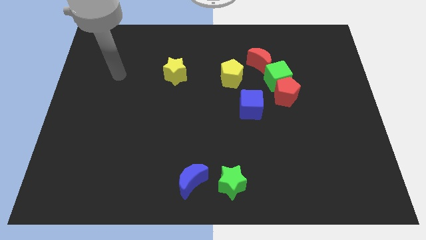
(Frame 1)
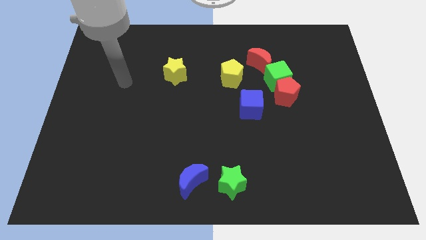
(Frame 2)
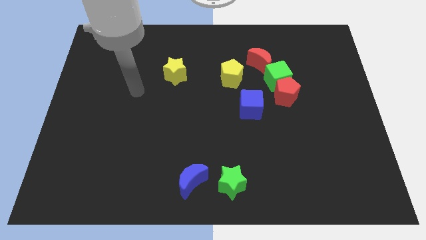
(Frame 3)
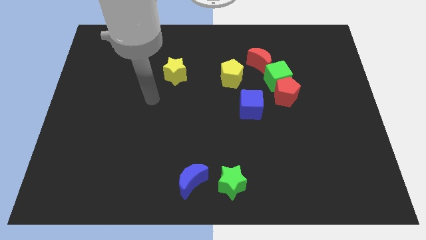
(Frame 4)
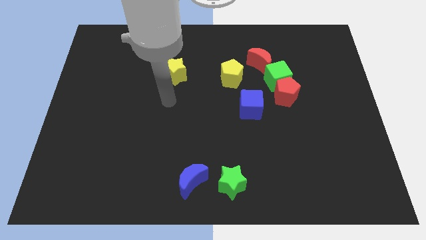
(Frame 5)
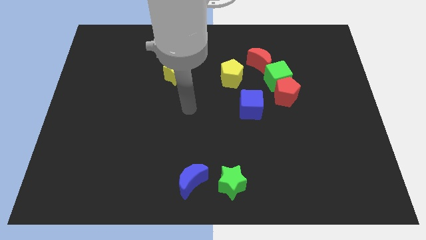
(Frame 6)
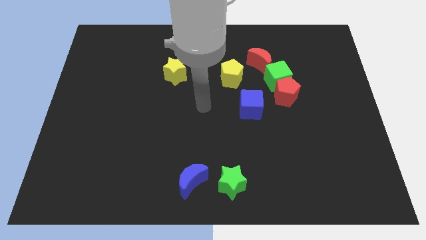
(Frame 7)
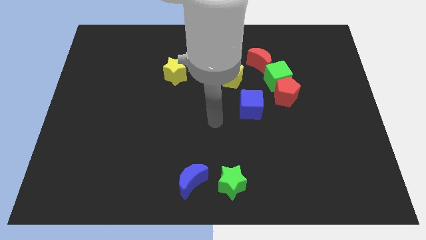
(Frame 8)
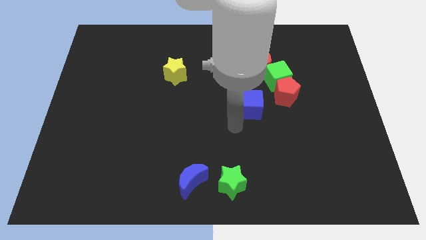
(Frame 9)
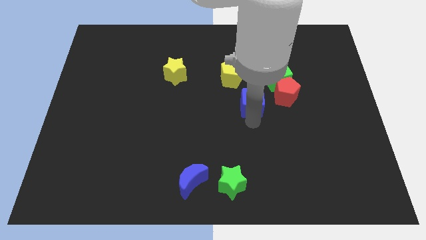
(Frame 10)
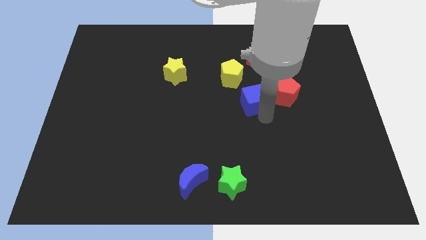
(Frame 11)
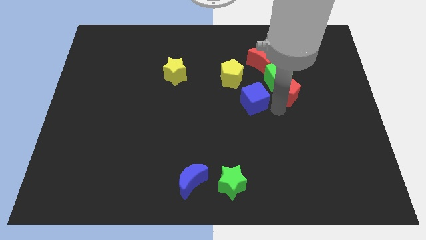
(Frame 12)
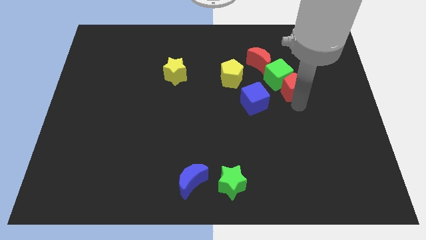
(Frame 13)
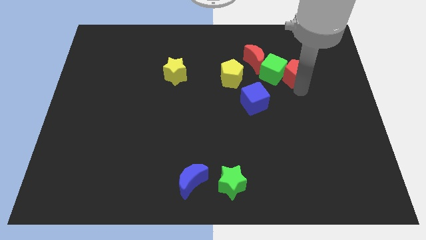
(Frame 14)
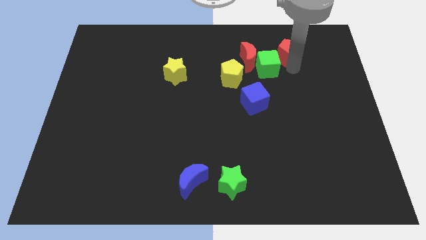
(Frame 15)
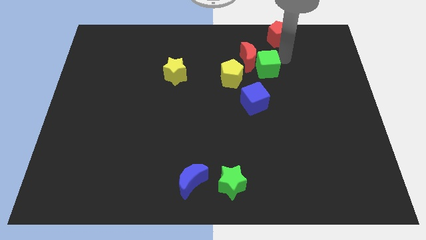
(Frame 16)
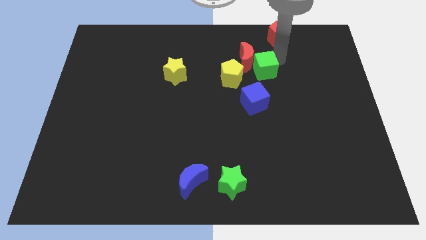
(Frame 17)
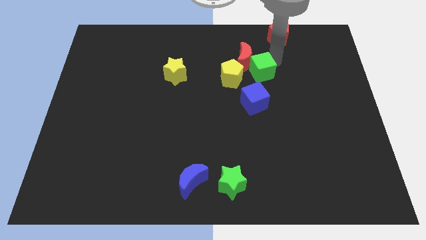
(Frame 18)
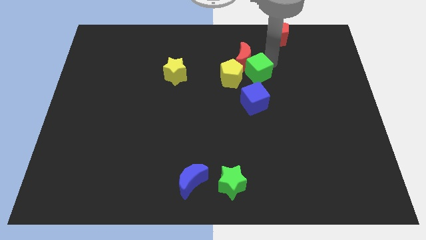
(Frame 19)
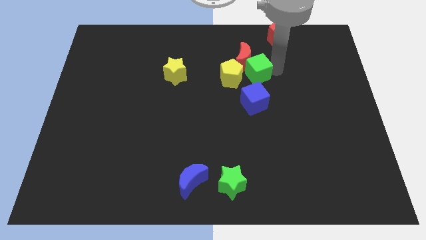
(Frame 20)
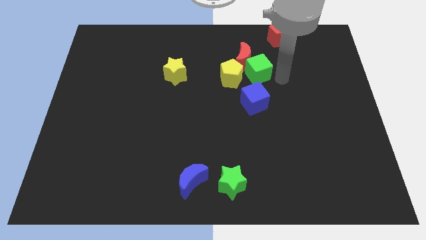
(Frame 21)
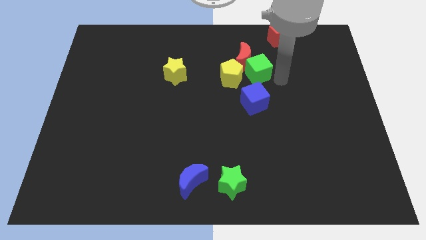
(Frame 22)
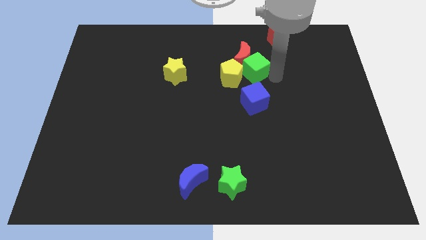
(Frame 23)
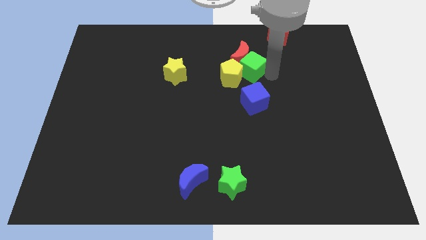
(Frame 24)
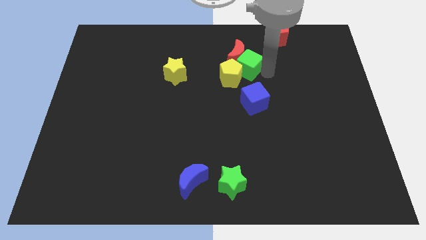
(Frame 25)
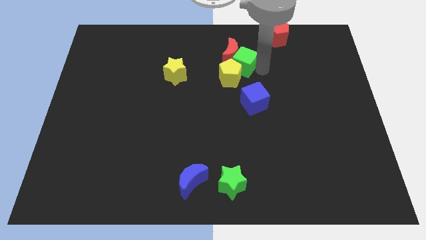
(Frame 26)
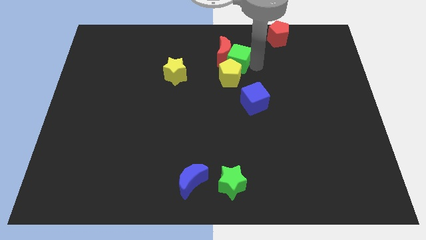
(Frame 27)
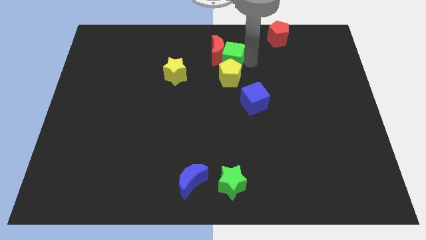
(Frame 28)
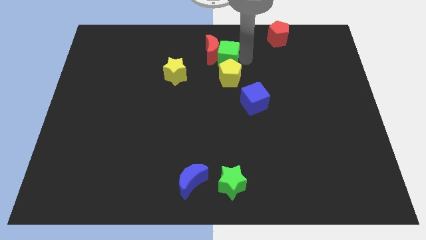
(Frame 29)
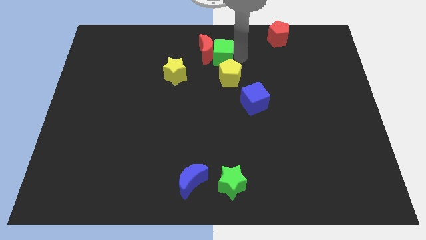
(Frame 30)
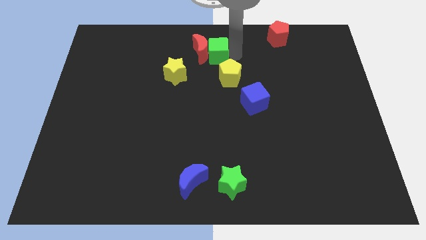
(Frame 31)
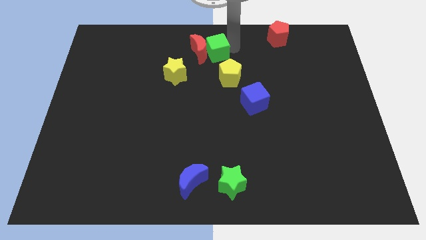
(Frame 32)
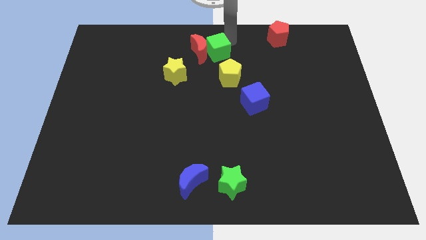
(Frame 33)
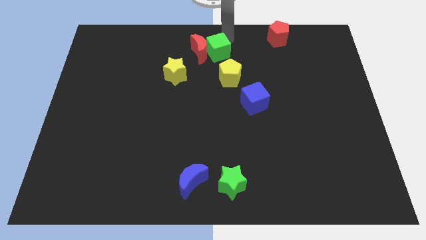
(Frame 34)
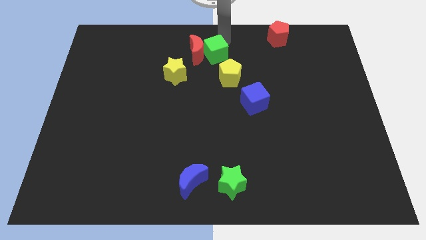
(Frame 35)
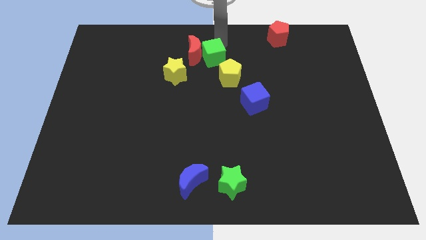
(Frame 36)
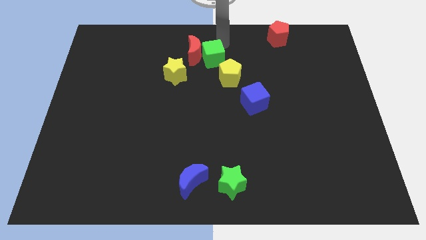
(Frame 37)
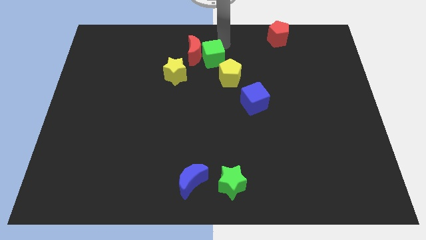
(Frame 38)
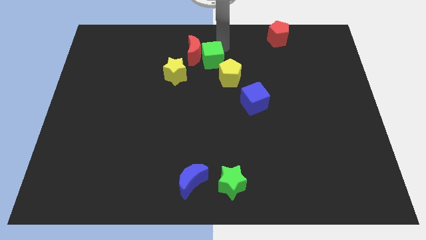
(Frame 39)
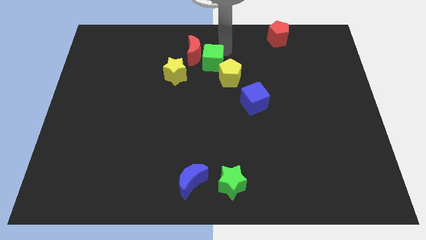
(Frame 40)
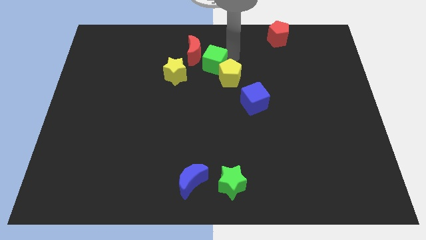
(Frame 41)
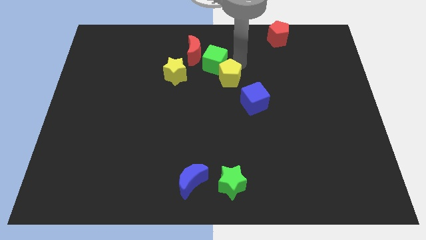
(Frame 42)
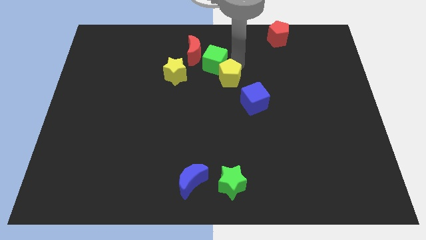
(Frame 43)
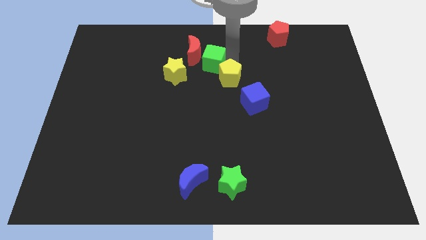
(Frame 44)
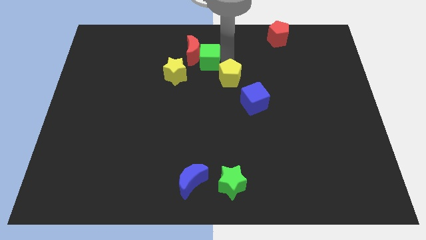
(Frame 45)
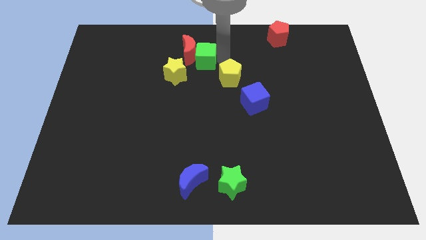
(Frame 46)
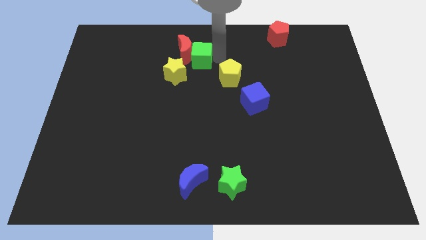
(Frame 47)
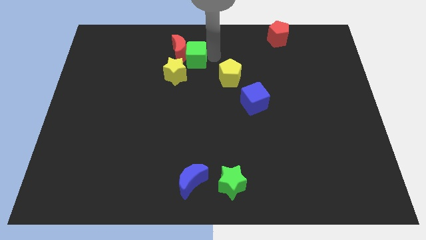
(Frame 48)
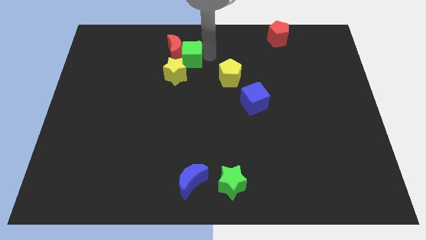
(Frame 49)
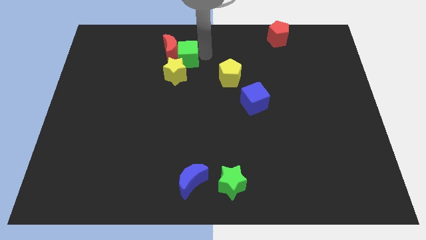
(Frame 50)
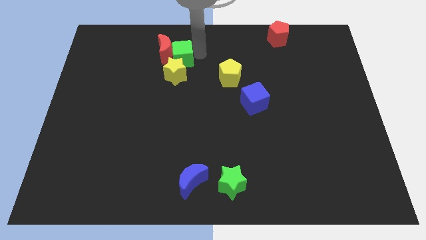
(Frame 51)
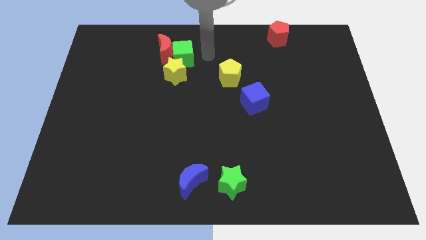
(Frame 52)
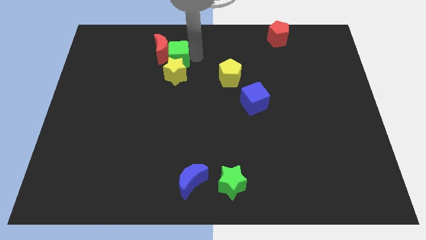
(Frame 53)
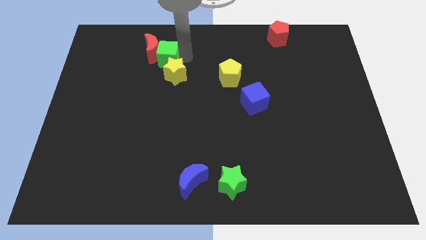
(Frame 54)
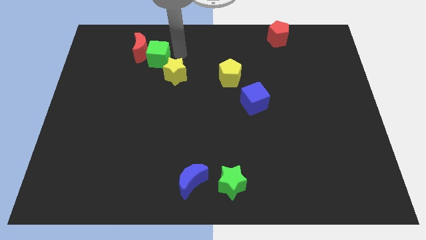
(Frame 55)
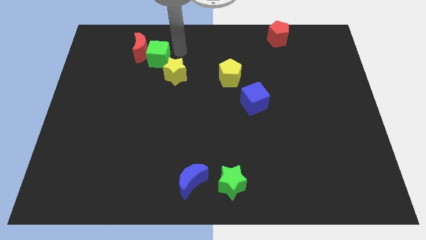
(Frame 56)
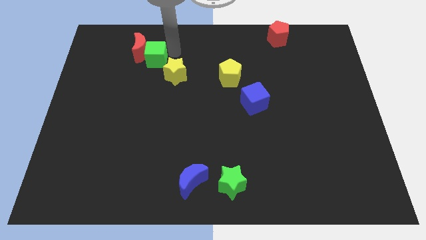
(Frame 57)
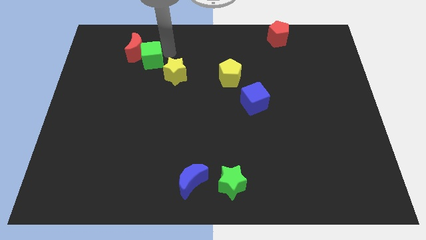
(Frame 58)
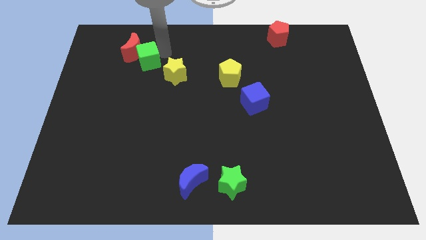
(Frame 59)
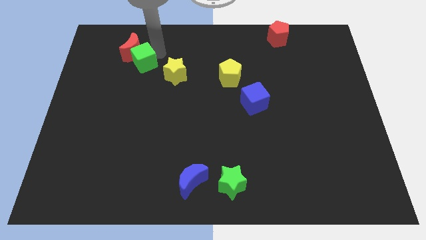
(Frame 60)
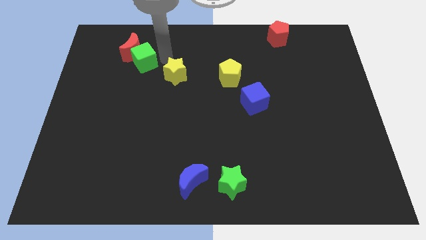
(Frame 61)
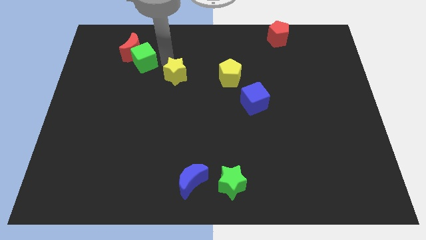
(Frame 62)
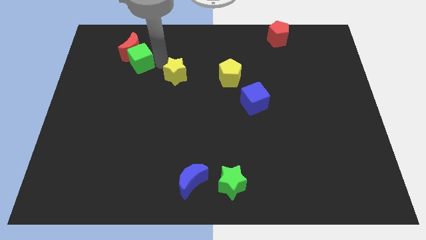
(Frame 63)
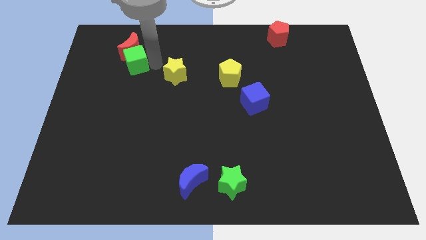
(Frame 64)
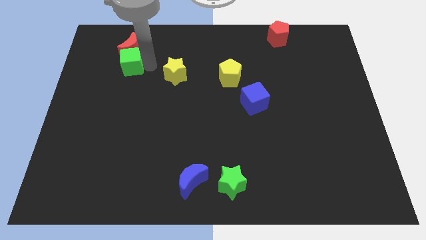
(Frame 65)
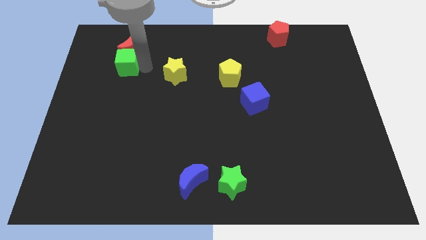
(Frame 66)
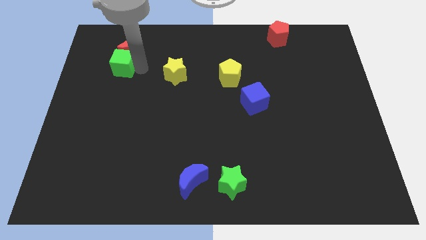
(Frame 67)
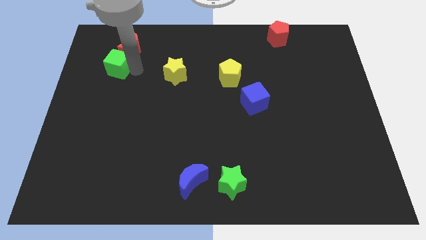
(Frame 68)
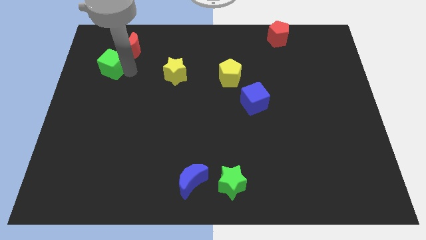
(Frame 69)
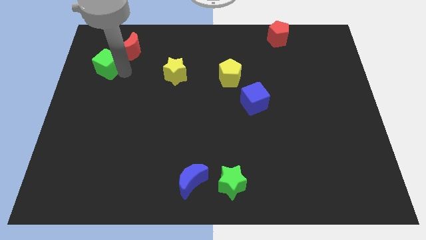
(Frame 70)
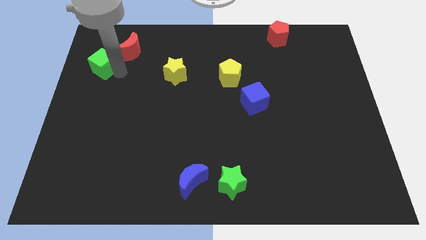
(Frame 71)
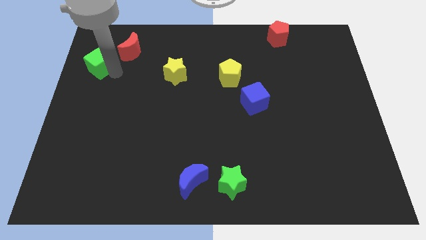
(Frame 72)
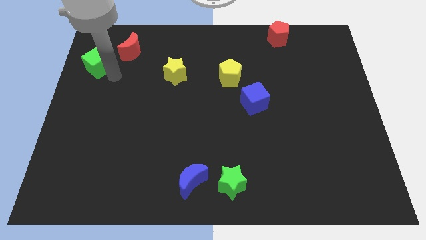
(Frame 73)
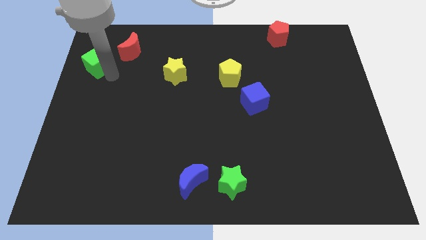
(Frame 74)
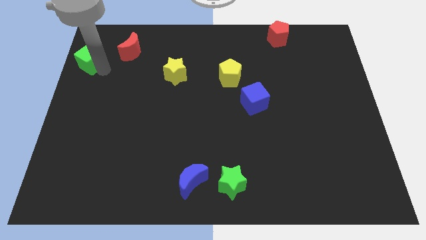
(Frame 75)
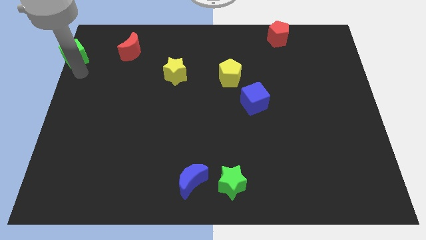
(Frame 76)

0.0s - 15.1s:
push the green cube to the top left
